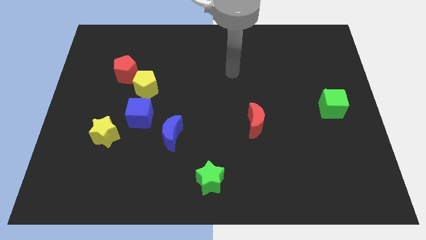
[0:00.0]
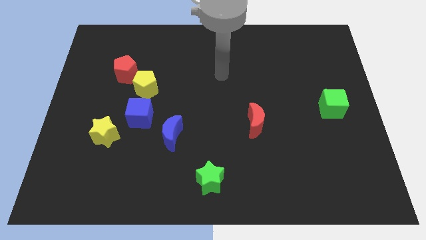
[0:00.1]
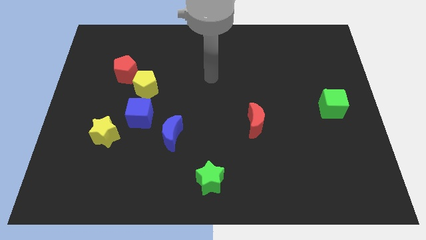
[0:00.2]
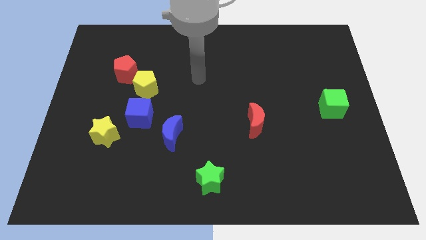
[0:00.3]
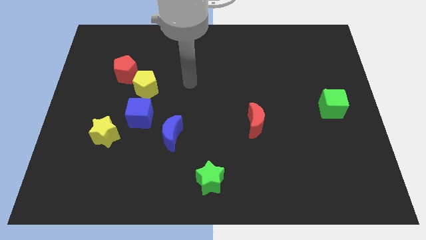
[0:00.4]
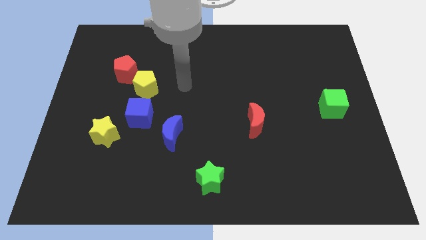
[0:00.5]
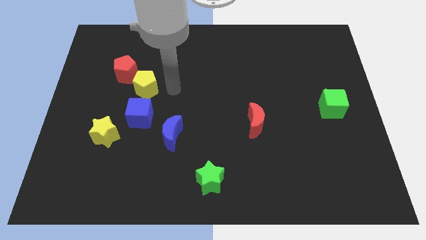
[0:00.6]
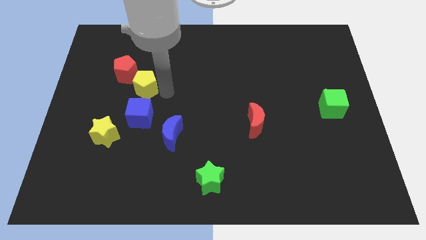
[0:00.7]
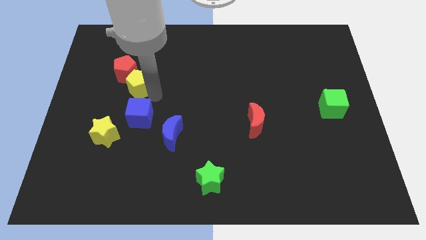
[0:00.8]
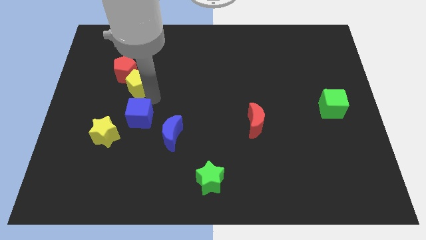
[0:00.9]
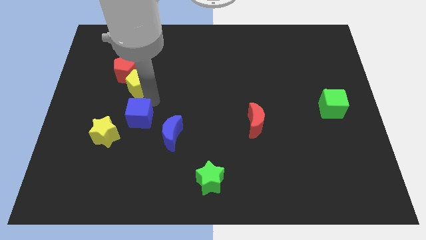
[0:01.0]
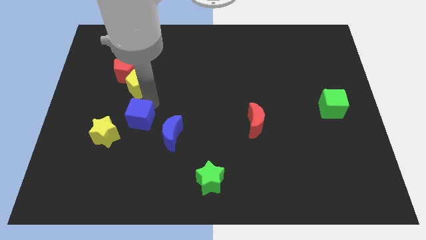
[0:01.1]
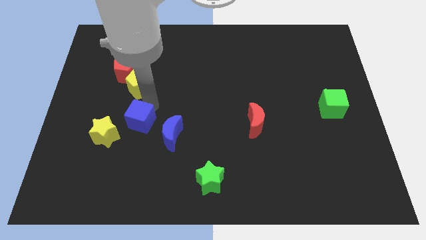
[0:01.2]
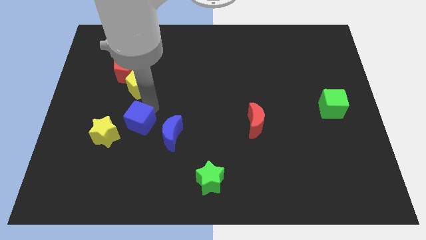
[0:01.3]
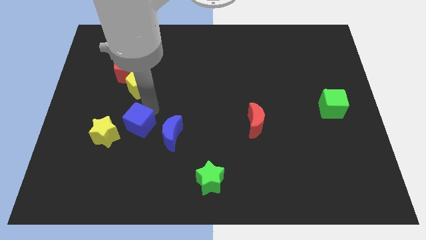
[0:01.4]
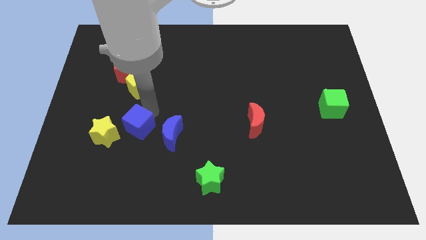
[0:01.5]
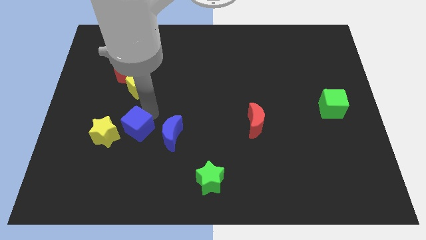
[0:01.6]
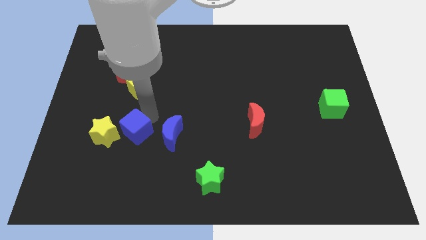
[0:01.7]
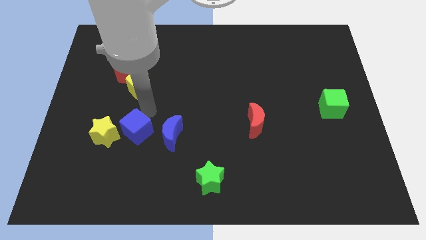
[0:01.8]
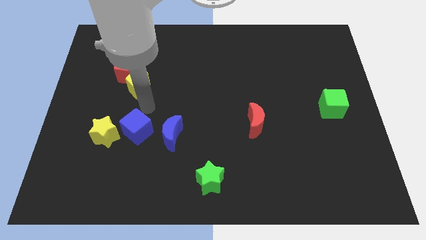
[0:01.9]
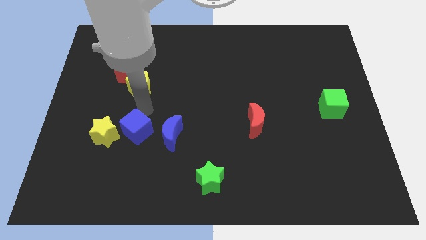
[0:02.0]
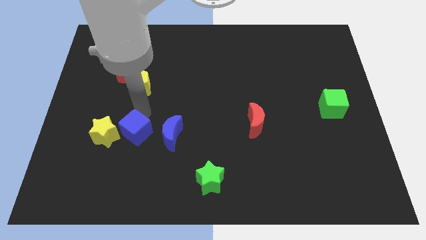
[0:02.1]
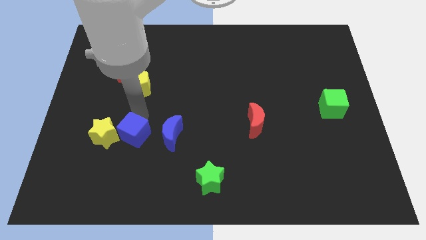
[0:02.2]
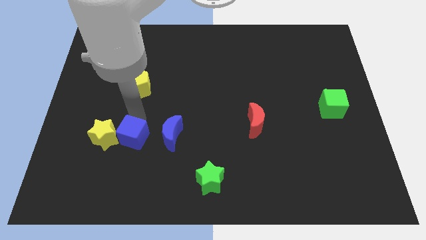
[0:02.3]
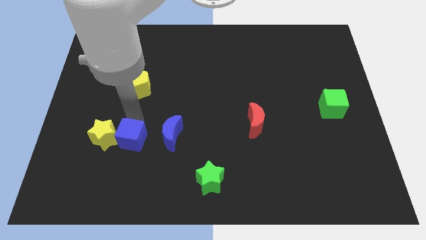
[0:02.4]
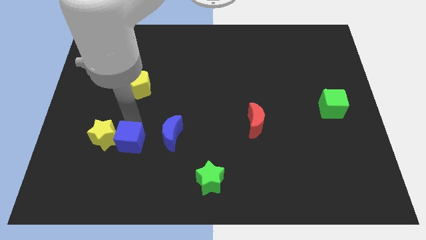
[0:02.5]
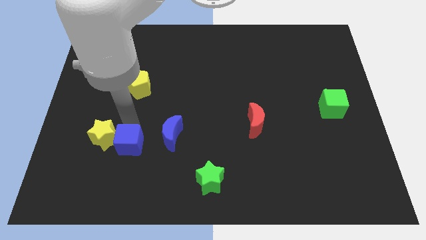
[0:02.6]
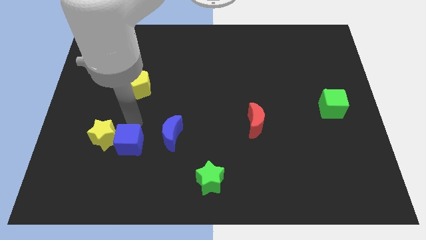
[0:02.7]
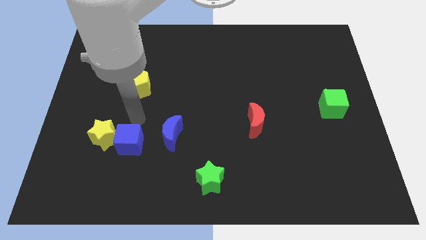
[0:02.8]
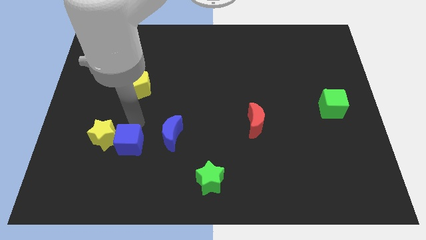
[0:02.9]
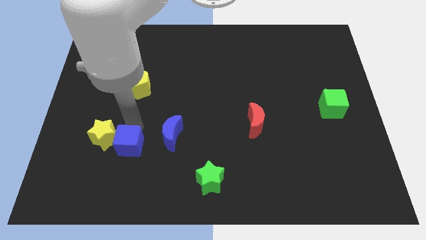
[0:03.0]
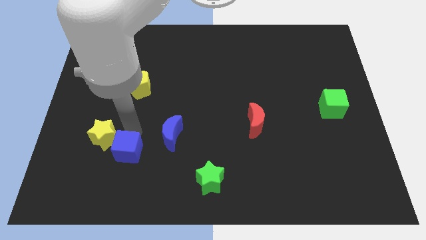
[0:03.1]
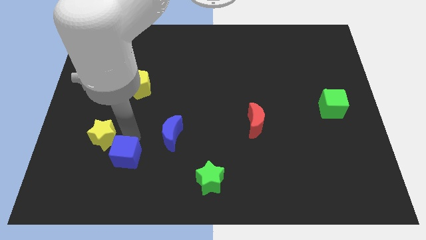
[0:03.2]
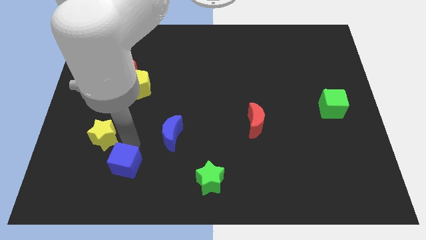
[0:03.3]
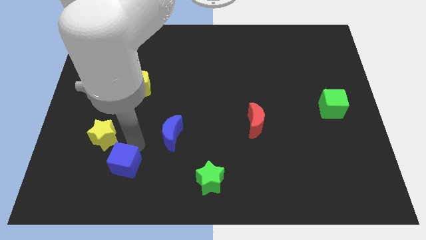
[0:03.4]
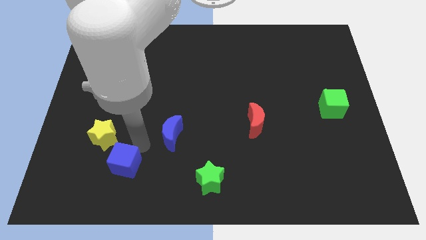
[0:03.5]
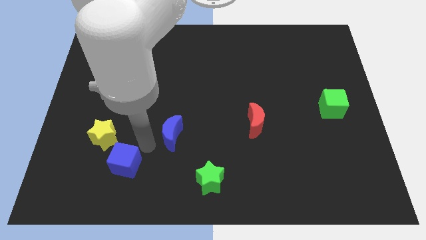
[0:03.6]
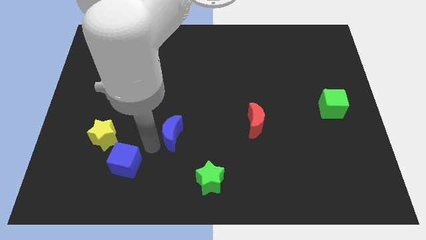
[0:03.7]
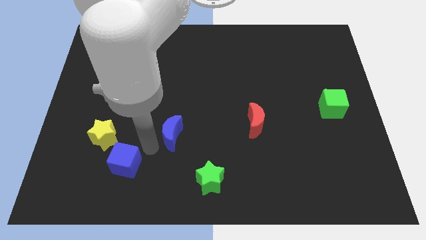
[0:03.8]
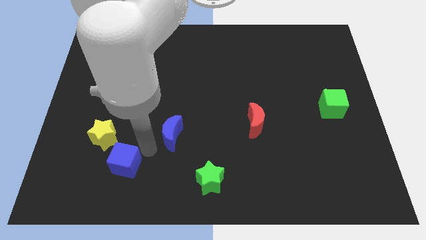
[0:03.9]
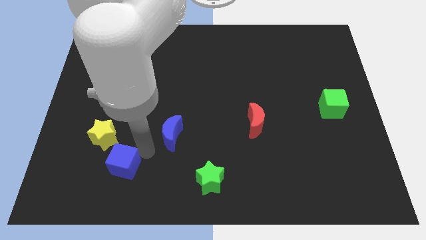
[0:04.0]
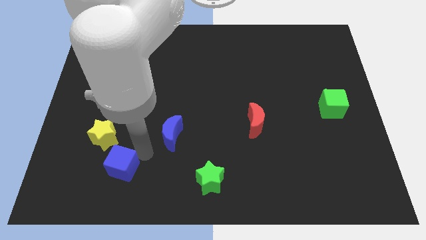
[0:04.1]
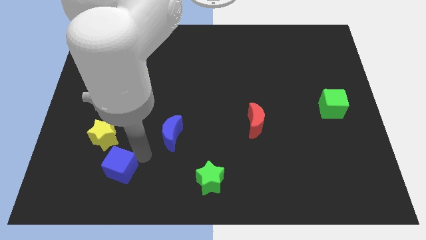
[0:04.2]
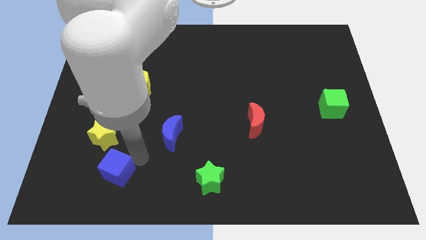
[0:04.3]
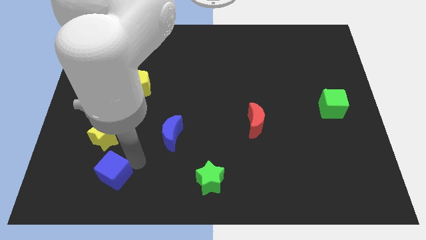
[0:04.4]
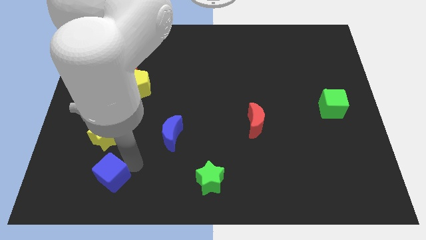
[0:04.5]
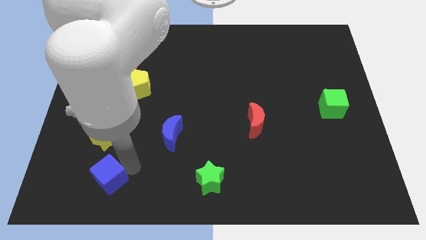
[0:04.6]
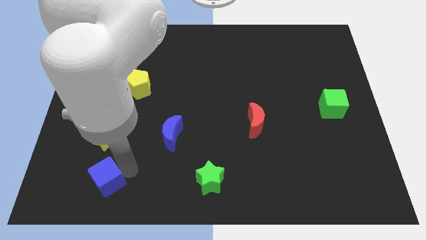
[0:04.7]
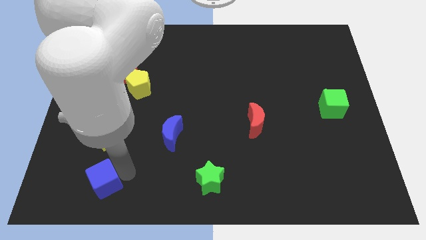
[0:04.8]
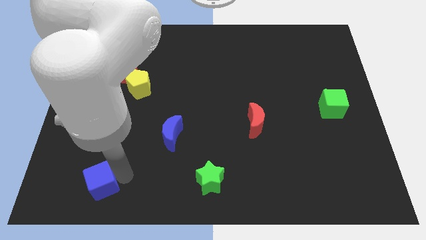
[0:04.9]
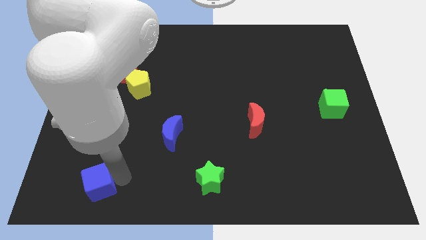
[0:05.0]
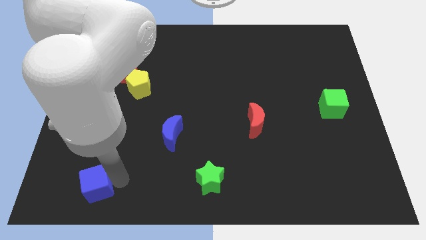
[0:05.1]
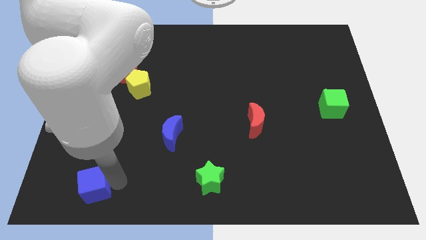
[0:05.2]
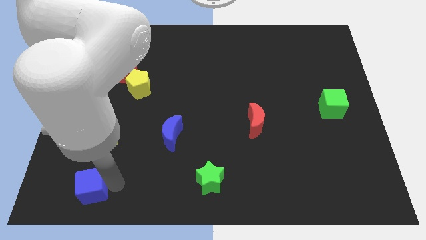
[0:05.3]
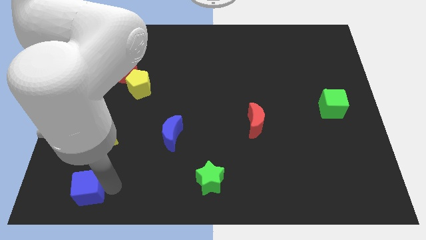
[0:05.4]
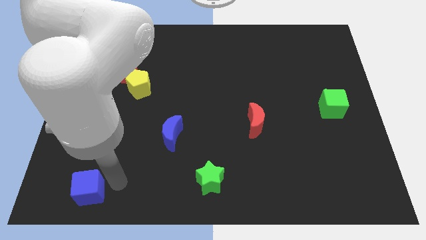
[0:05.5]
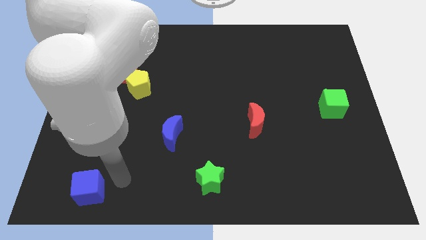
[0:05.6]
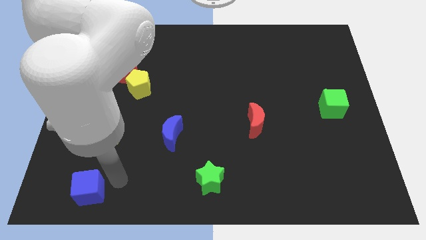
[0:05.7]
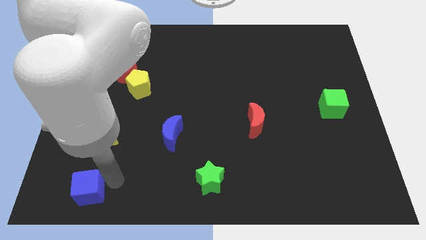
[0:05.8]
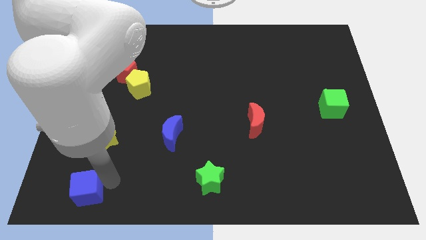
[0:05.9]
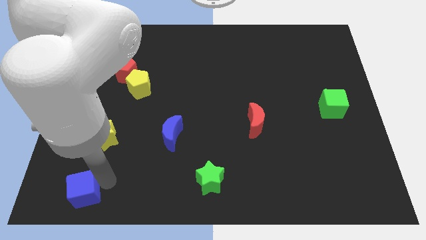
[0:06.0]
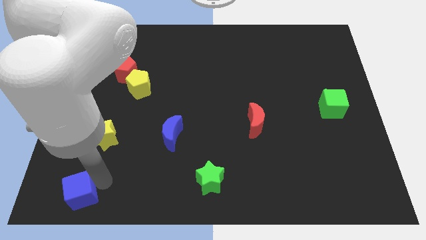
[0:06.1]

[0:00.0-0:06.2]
move the blue cube to the lower left corner
